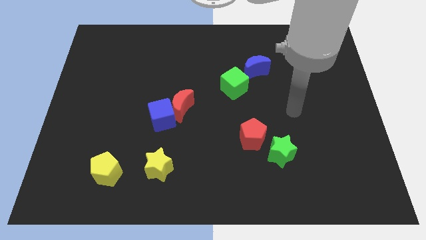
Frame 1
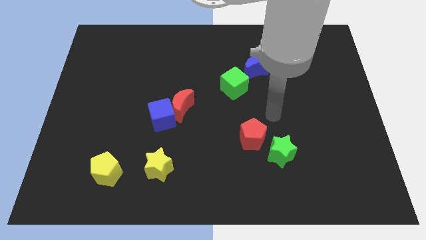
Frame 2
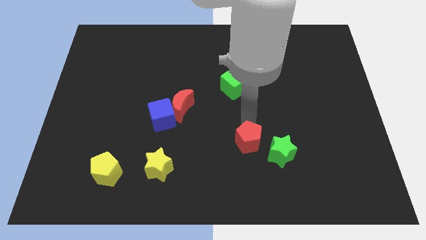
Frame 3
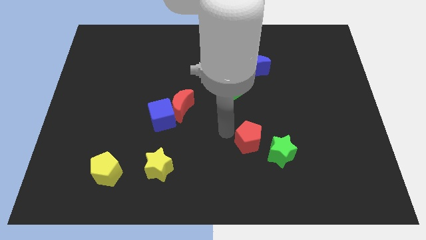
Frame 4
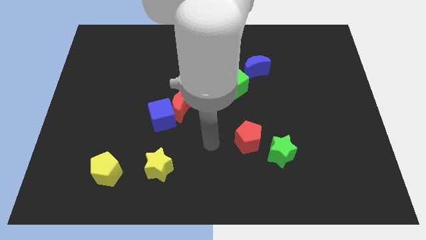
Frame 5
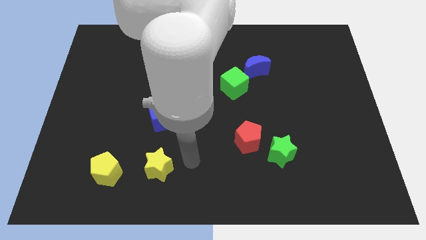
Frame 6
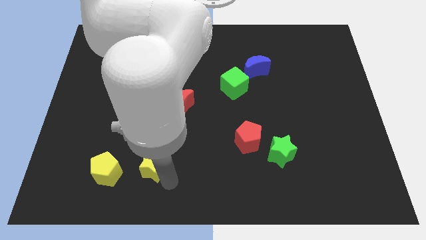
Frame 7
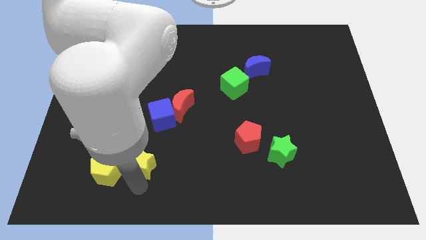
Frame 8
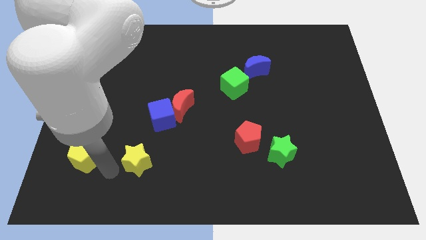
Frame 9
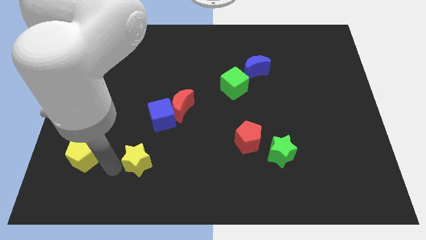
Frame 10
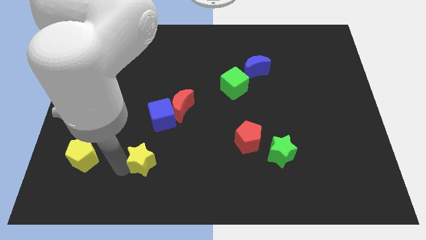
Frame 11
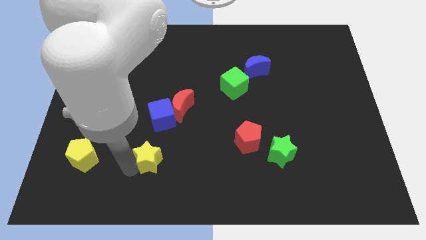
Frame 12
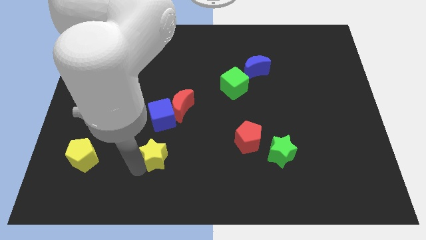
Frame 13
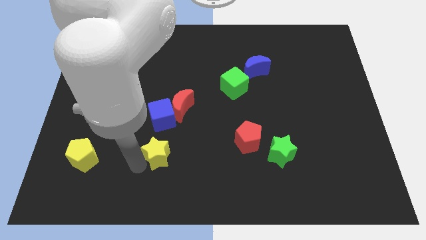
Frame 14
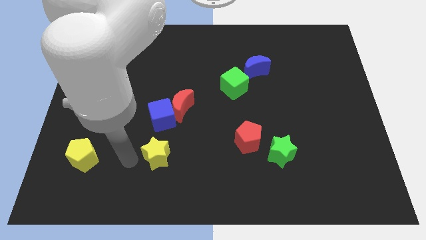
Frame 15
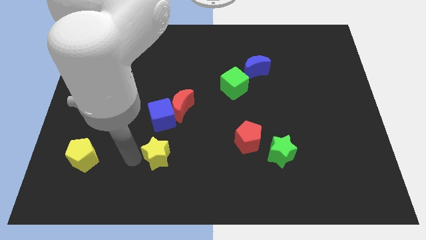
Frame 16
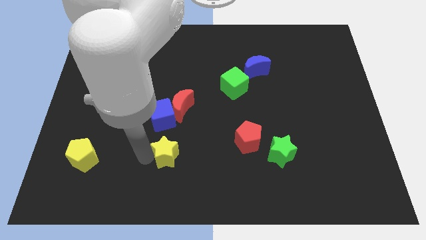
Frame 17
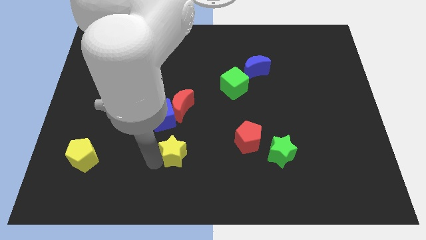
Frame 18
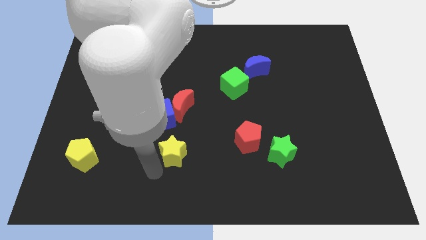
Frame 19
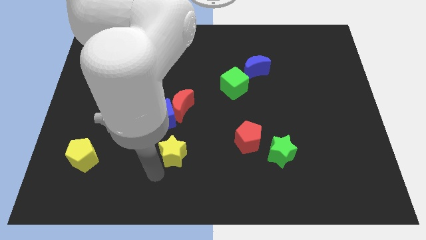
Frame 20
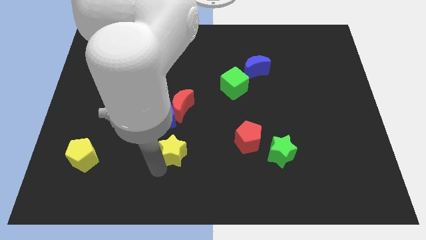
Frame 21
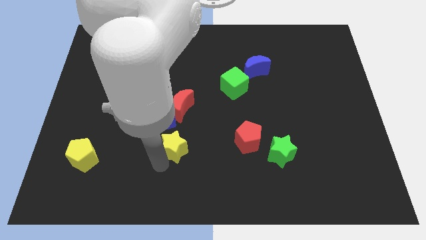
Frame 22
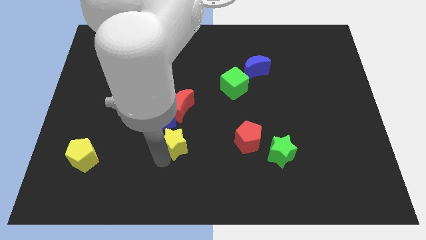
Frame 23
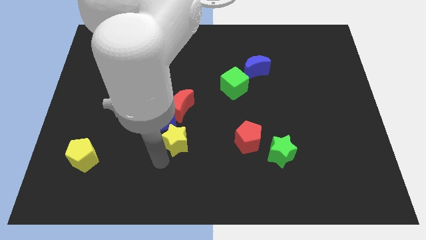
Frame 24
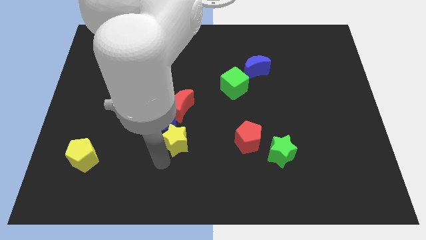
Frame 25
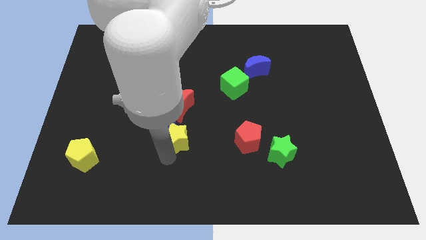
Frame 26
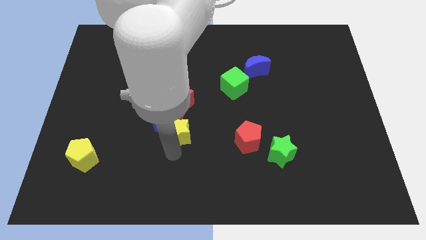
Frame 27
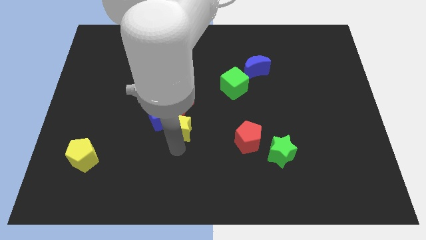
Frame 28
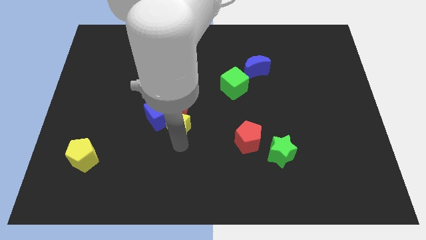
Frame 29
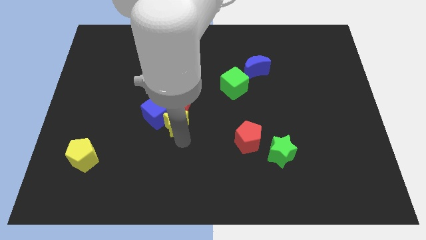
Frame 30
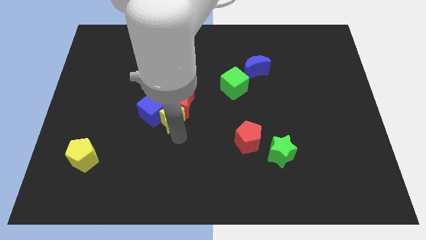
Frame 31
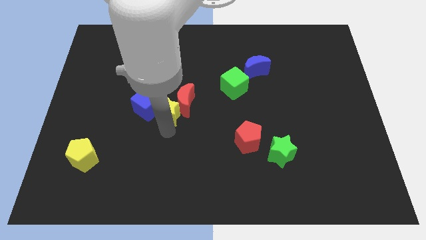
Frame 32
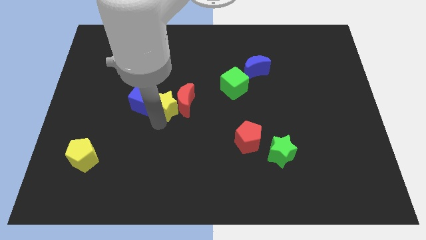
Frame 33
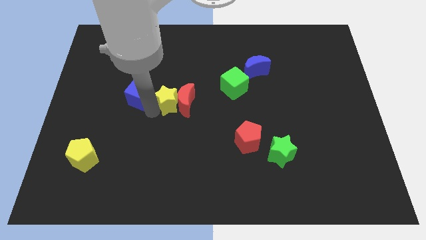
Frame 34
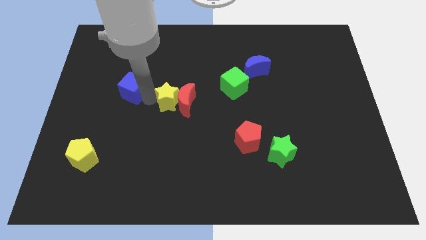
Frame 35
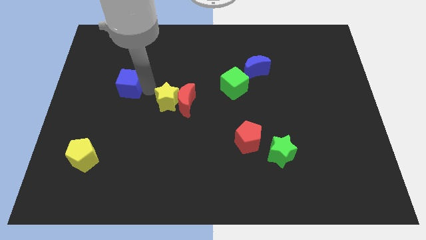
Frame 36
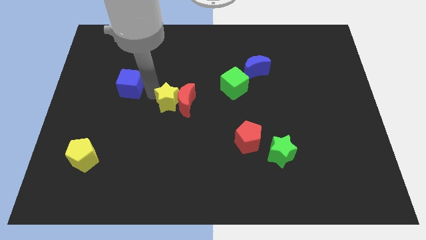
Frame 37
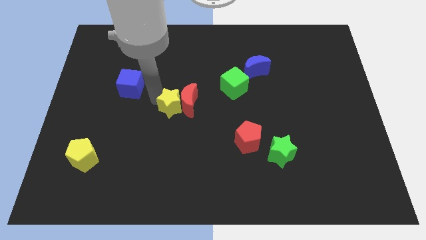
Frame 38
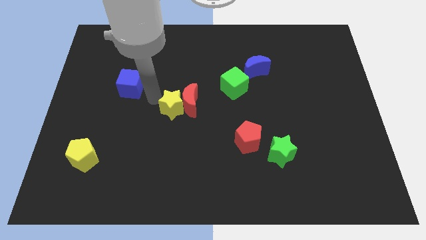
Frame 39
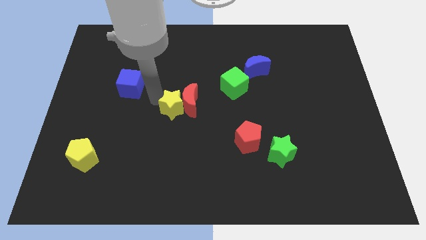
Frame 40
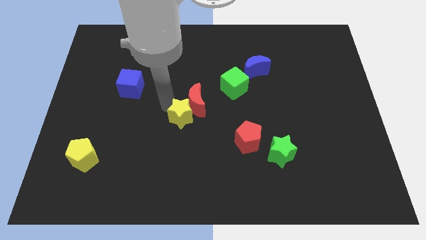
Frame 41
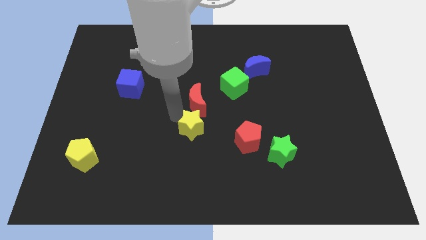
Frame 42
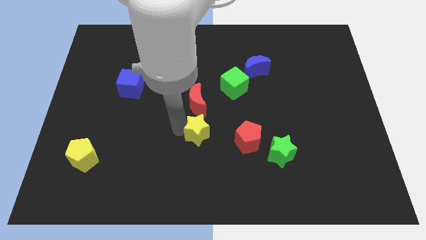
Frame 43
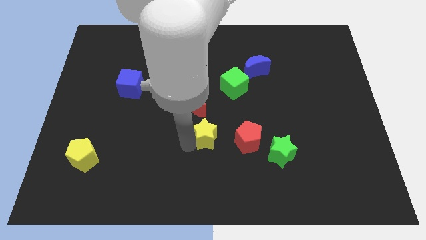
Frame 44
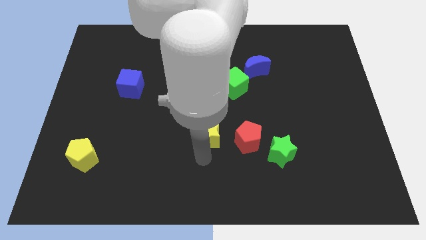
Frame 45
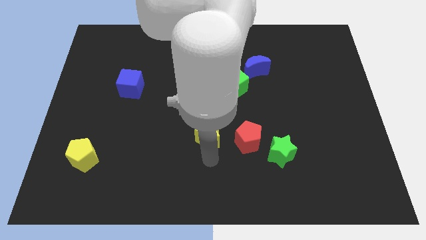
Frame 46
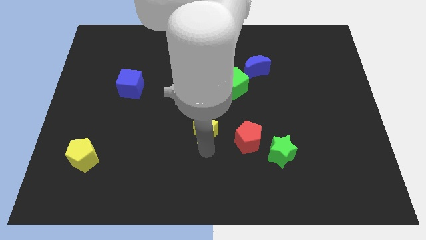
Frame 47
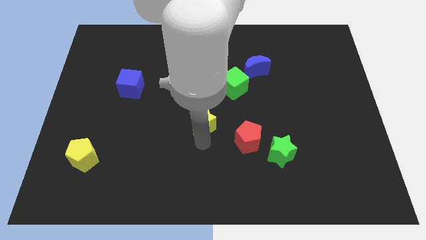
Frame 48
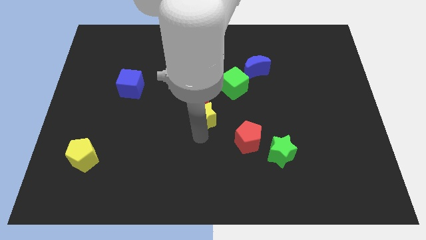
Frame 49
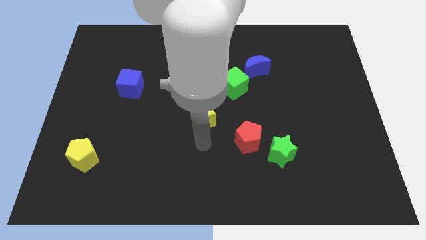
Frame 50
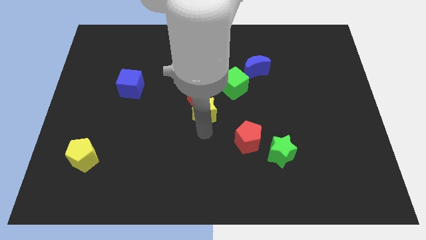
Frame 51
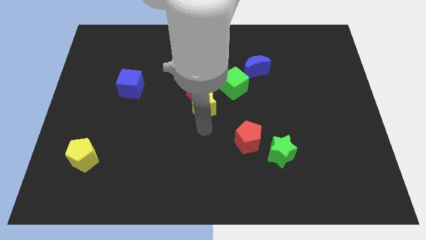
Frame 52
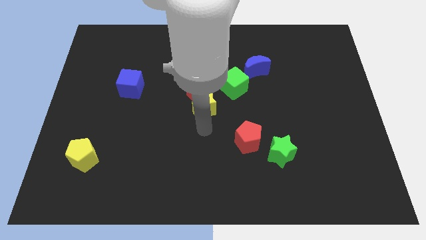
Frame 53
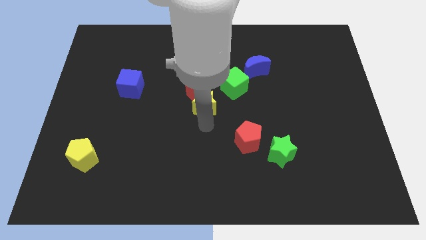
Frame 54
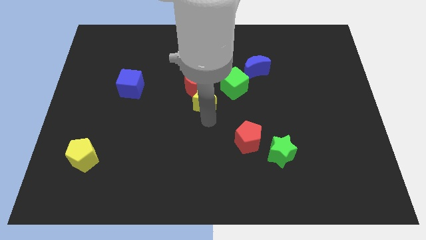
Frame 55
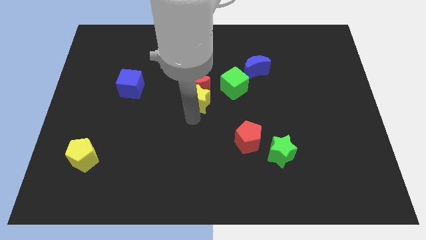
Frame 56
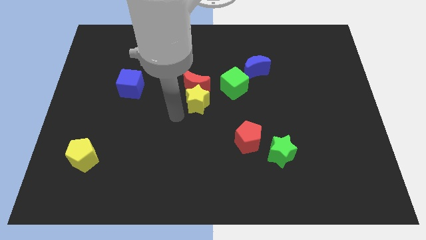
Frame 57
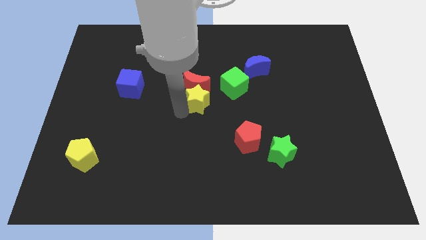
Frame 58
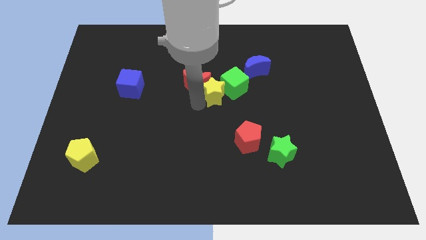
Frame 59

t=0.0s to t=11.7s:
slide the yellow star close to the green cube

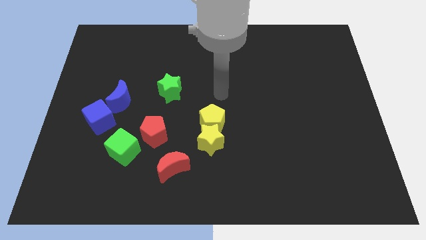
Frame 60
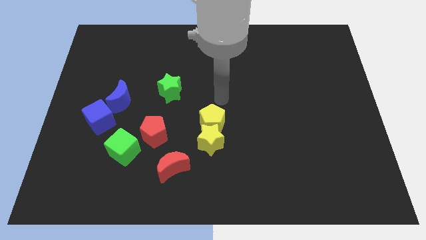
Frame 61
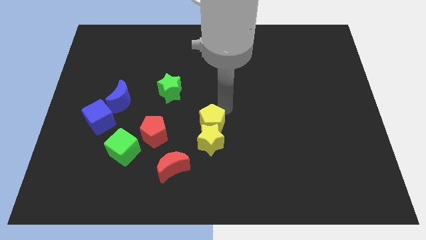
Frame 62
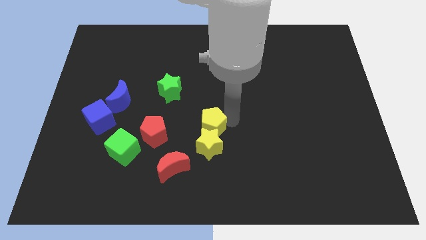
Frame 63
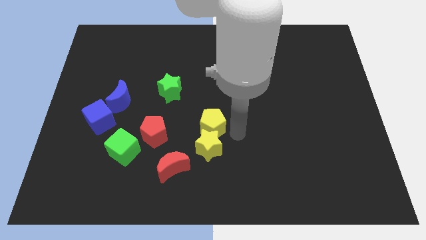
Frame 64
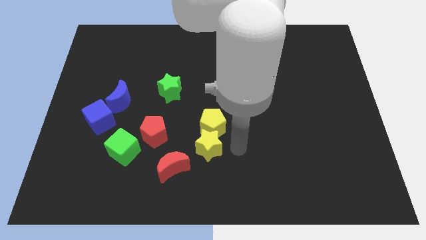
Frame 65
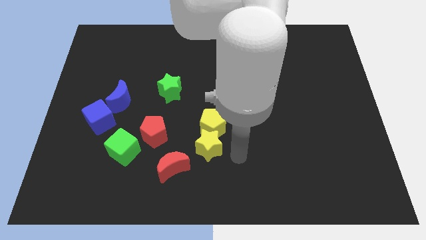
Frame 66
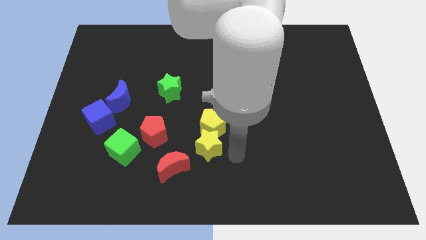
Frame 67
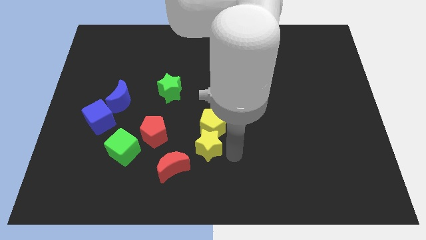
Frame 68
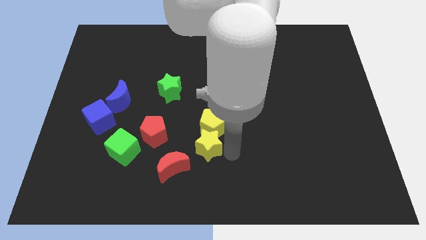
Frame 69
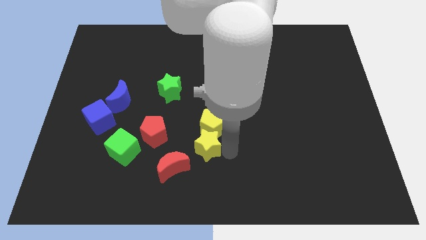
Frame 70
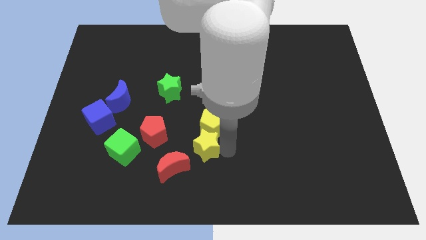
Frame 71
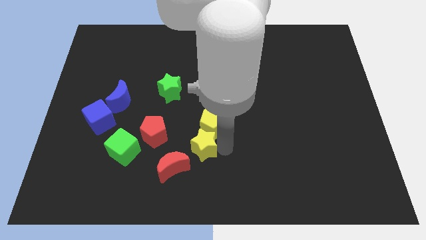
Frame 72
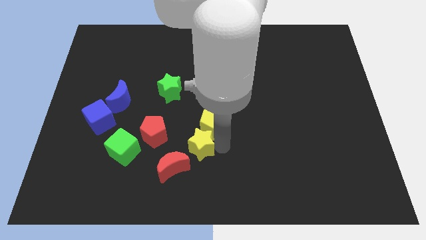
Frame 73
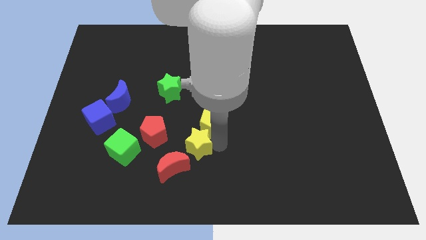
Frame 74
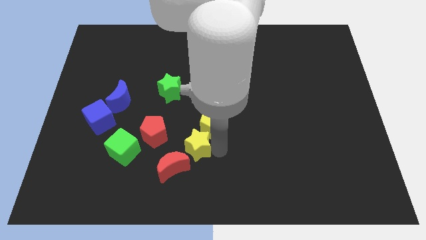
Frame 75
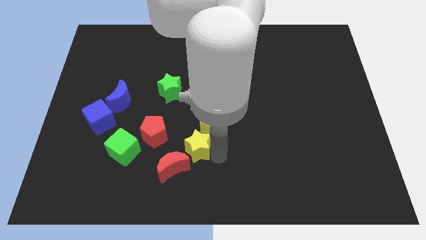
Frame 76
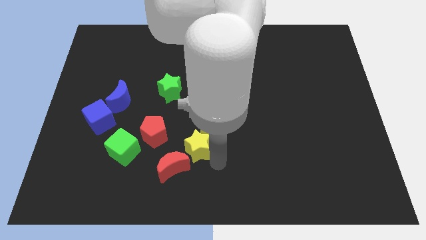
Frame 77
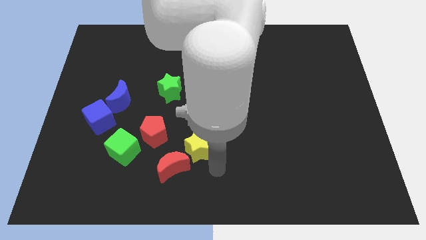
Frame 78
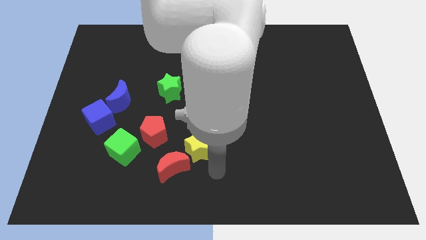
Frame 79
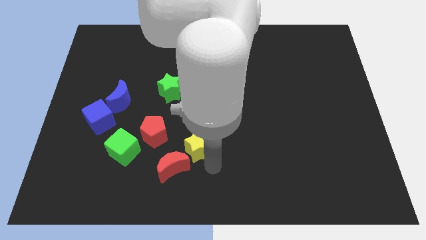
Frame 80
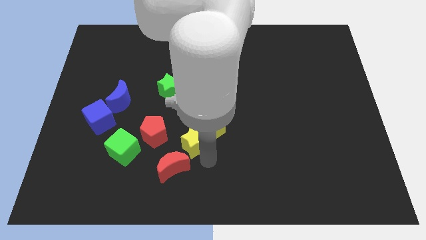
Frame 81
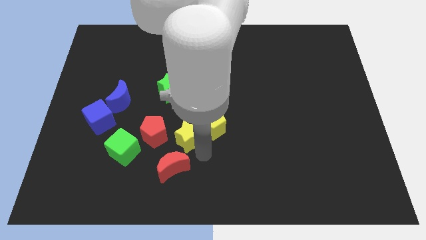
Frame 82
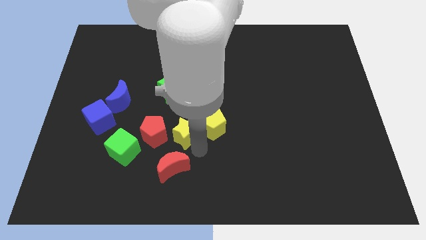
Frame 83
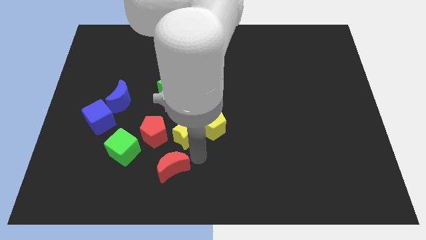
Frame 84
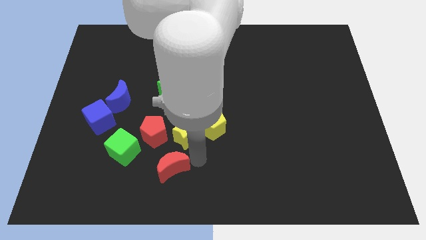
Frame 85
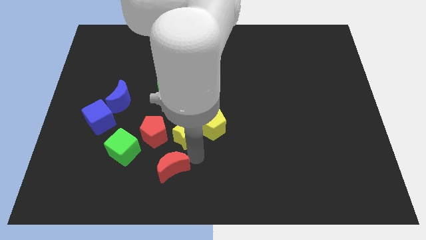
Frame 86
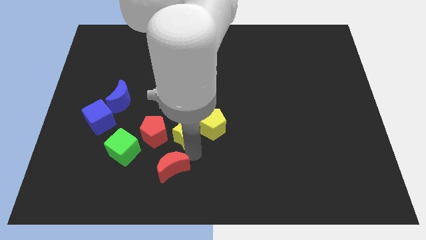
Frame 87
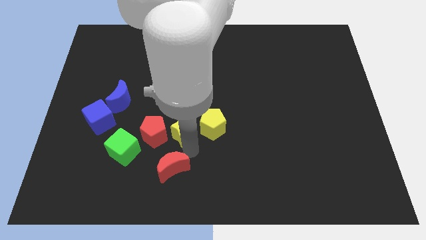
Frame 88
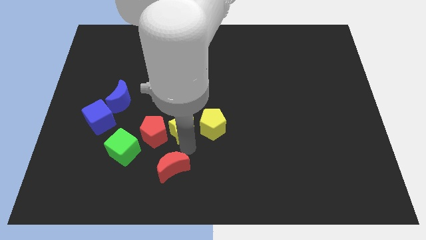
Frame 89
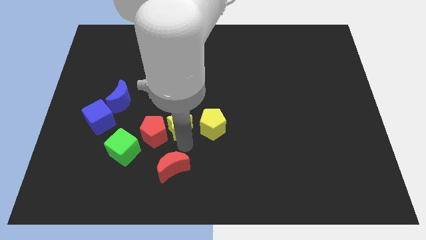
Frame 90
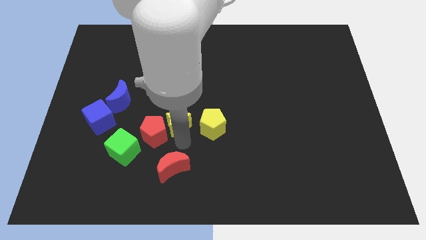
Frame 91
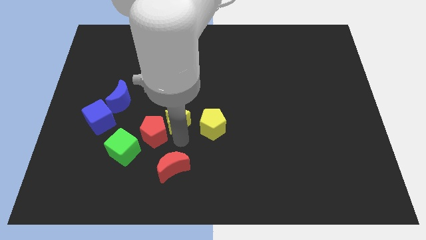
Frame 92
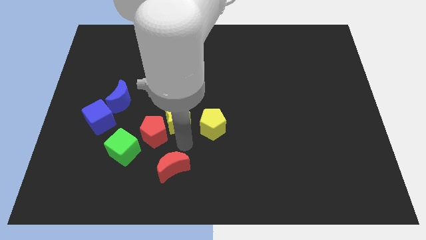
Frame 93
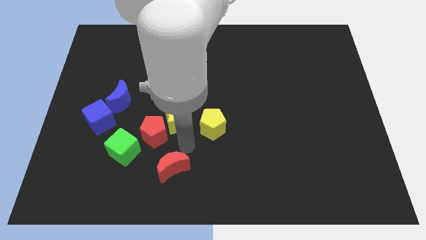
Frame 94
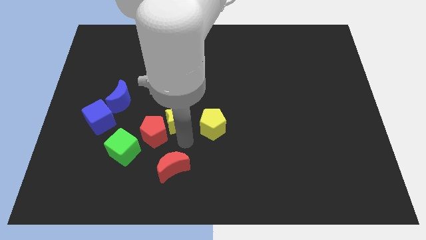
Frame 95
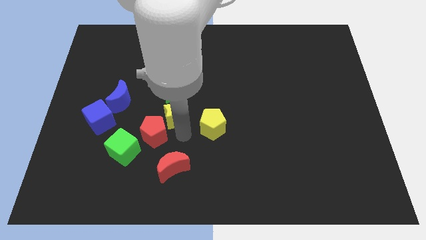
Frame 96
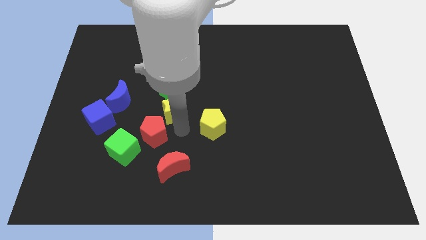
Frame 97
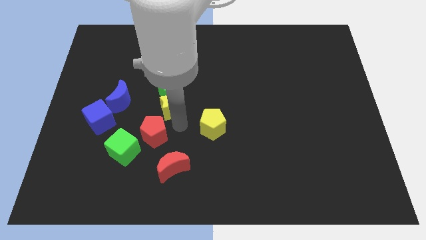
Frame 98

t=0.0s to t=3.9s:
push the yellow star towards the green star
